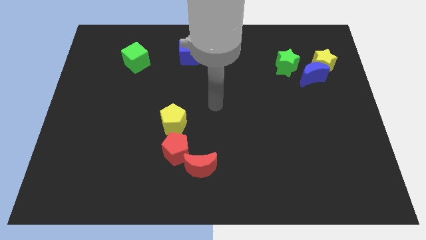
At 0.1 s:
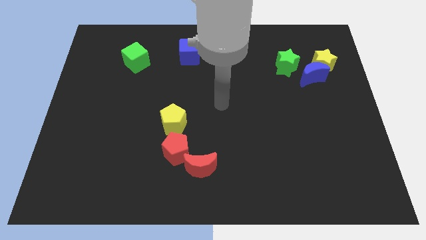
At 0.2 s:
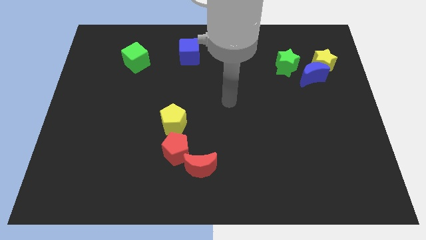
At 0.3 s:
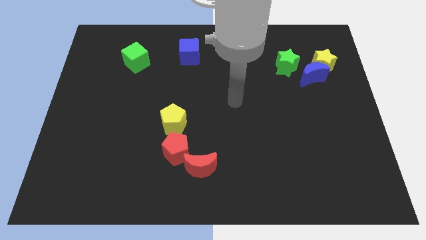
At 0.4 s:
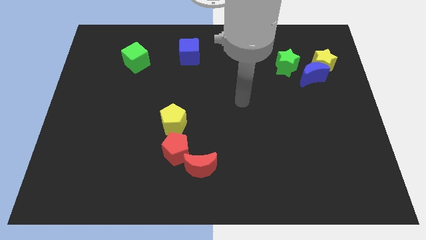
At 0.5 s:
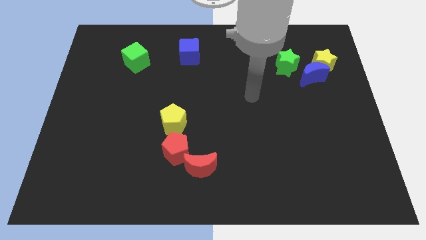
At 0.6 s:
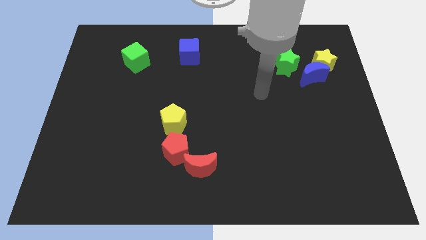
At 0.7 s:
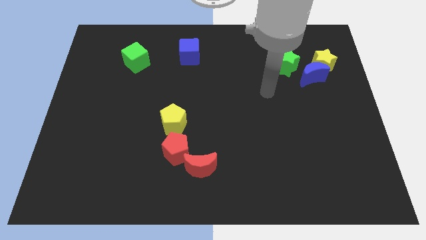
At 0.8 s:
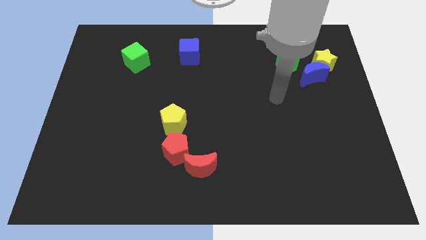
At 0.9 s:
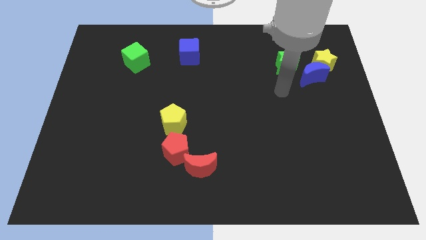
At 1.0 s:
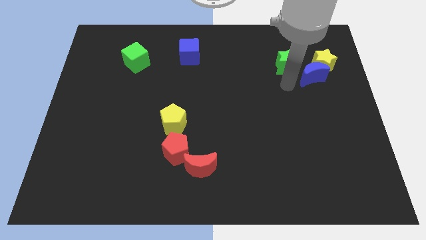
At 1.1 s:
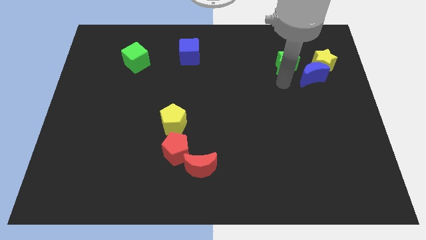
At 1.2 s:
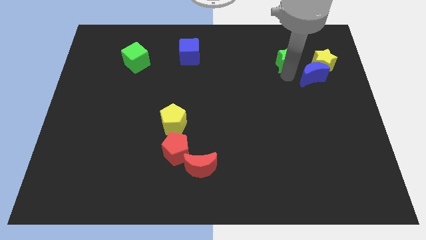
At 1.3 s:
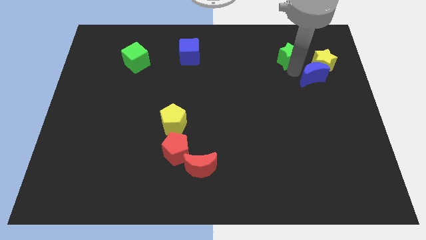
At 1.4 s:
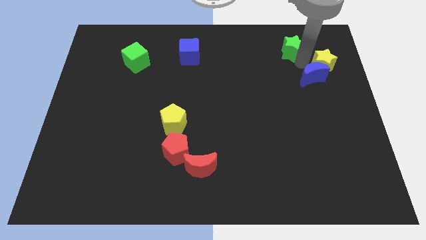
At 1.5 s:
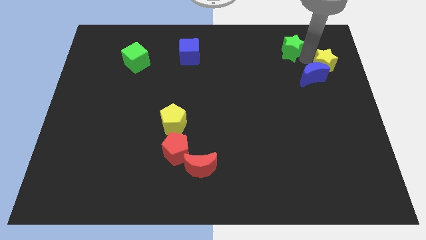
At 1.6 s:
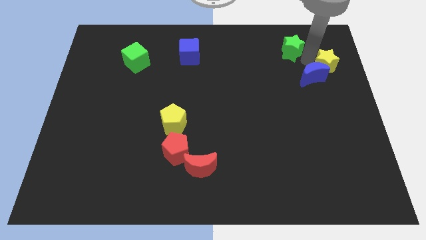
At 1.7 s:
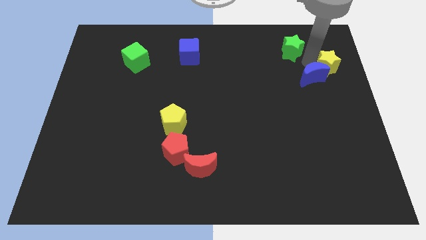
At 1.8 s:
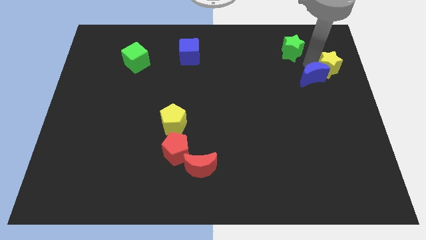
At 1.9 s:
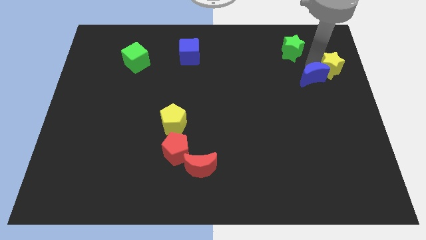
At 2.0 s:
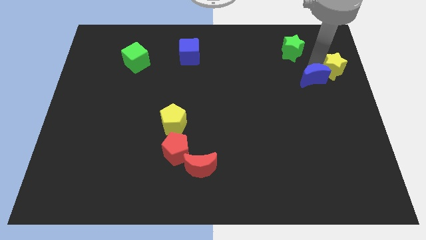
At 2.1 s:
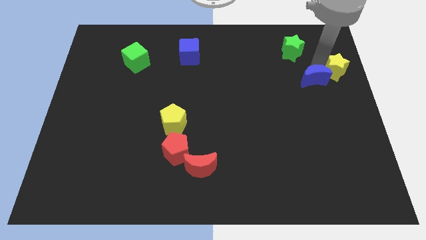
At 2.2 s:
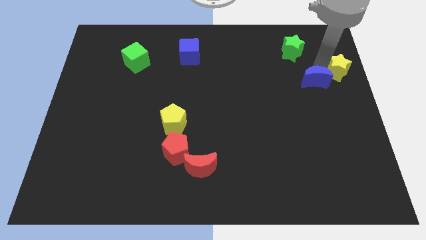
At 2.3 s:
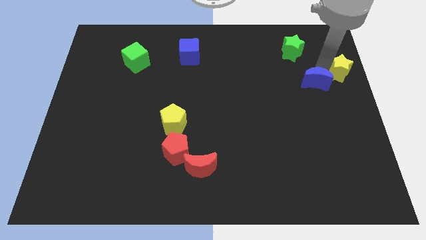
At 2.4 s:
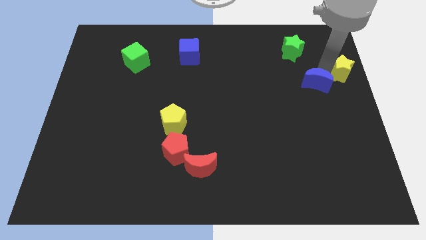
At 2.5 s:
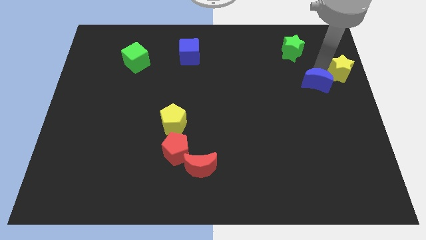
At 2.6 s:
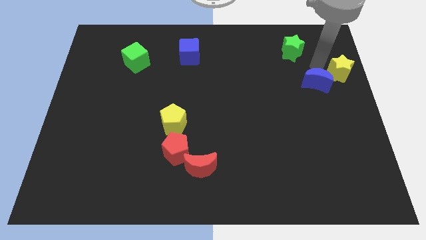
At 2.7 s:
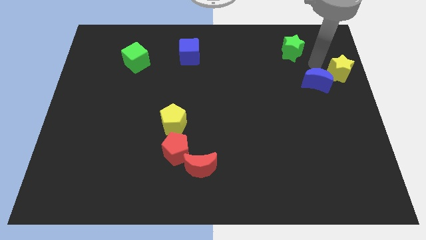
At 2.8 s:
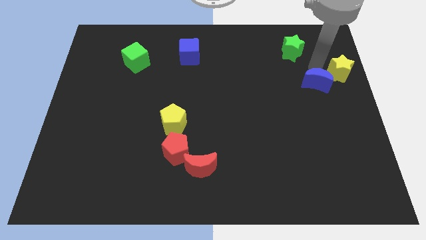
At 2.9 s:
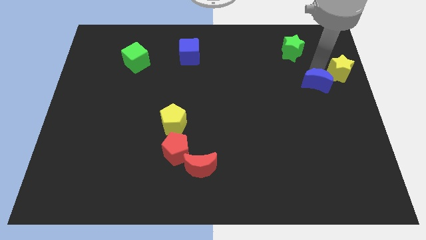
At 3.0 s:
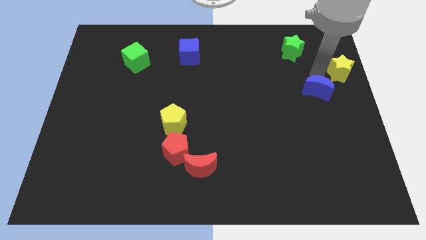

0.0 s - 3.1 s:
separate the blue moon from the yellow star and green star

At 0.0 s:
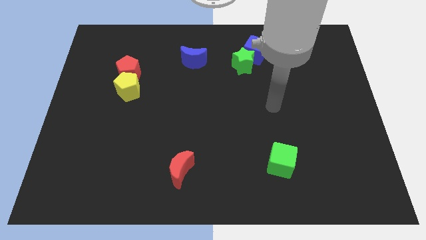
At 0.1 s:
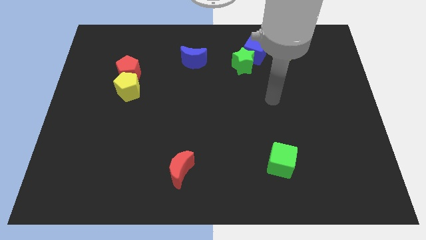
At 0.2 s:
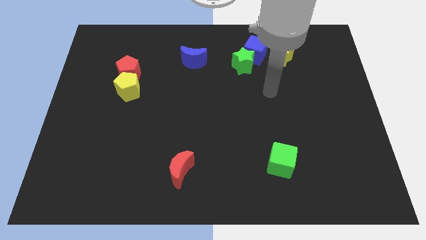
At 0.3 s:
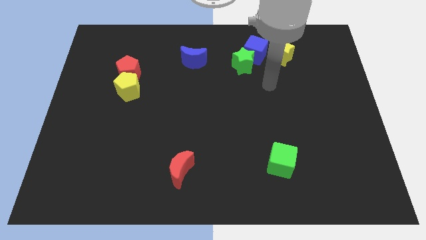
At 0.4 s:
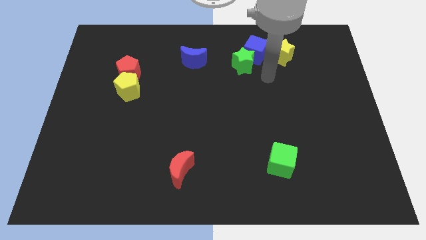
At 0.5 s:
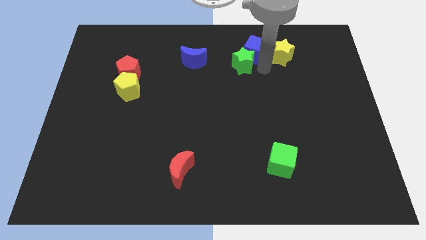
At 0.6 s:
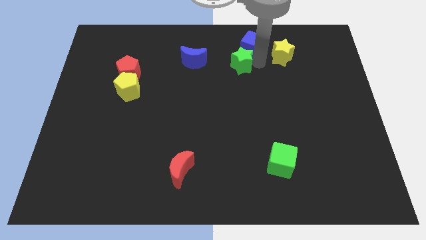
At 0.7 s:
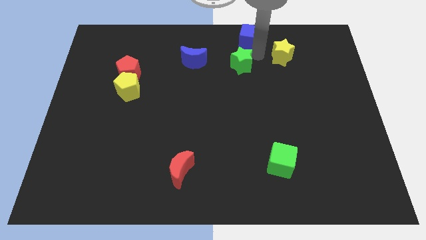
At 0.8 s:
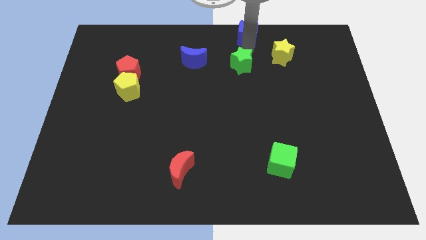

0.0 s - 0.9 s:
pull the green star apart from the blue cube

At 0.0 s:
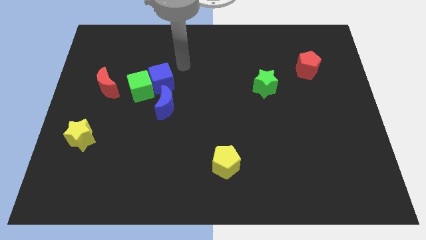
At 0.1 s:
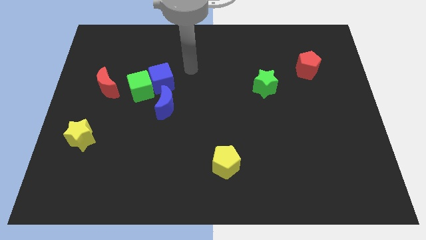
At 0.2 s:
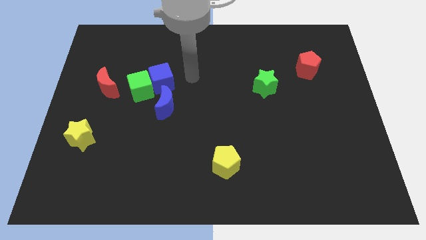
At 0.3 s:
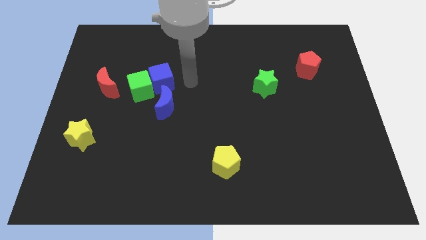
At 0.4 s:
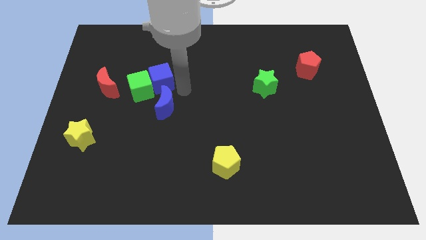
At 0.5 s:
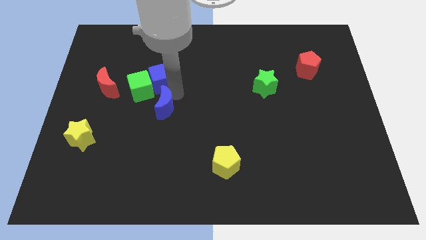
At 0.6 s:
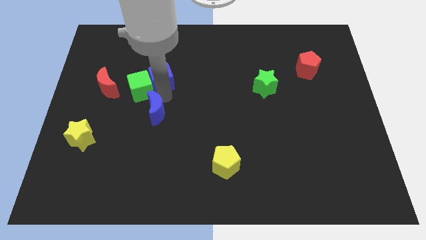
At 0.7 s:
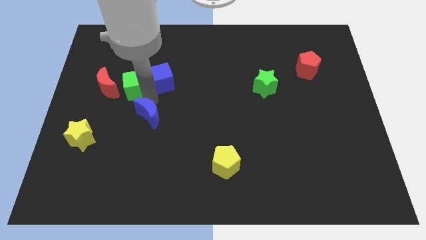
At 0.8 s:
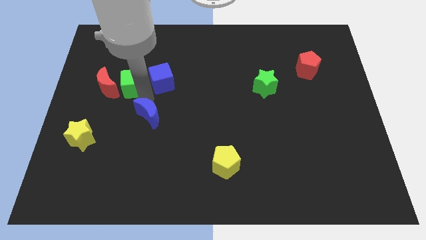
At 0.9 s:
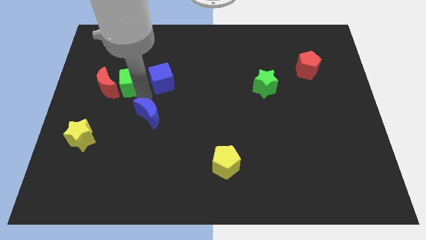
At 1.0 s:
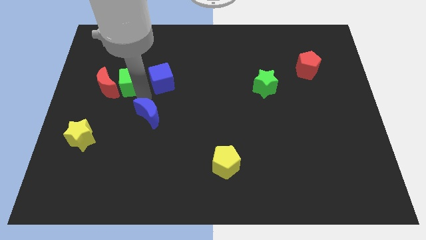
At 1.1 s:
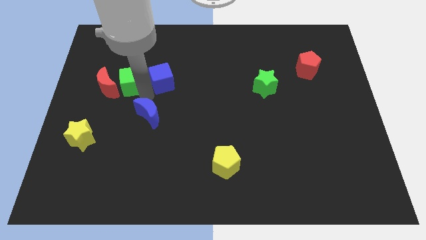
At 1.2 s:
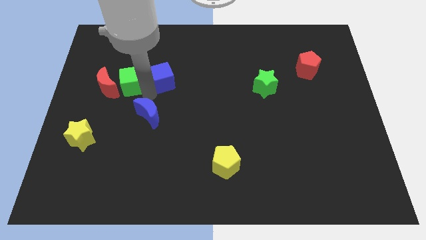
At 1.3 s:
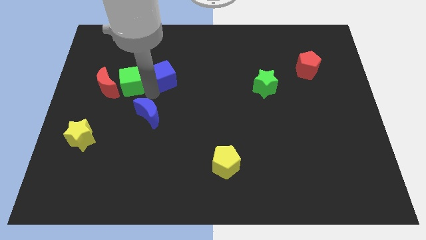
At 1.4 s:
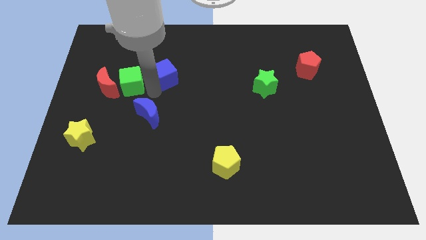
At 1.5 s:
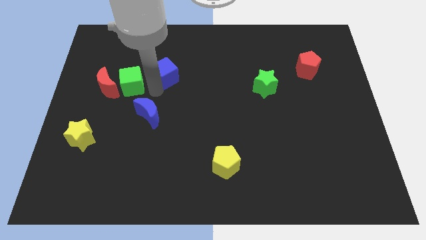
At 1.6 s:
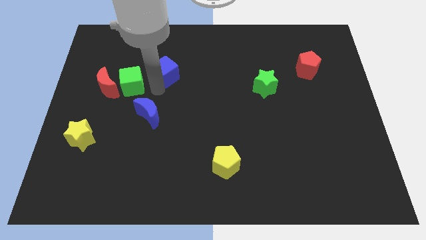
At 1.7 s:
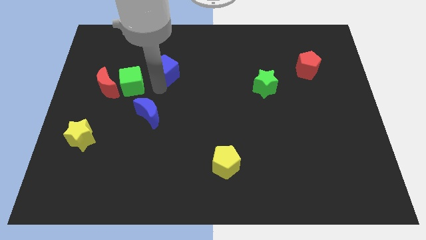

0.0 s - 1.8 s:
move the blue cube away from the green cube and blue moon

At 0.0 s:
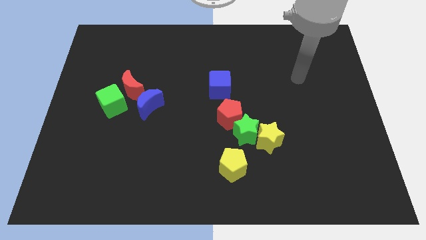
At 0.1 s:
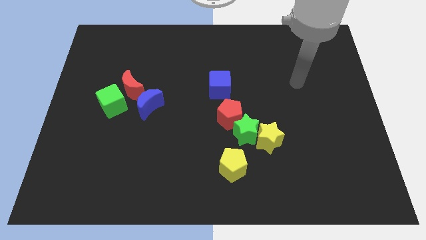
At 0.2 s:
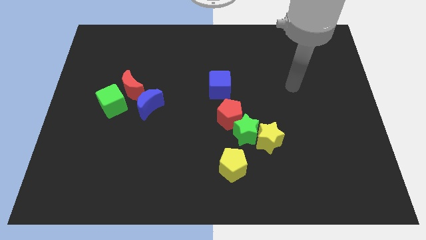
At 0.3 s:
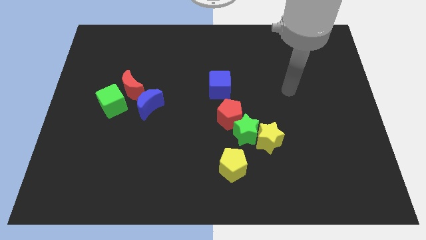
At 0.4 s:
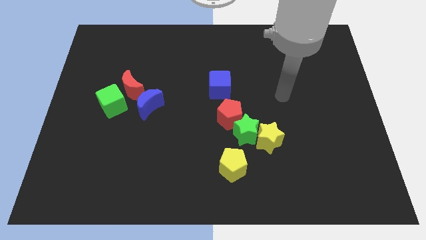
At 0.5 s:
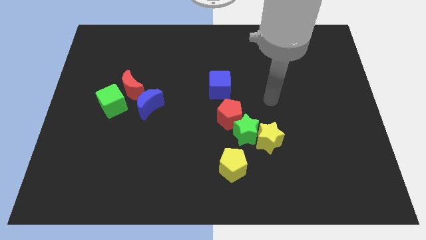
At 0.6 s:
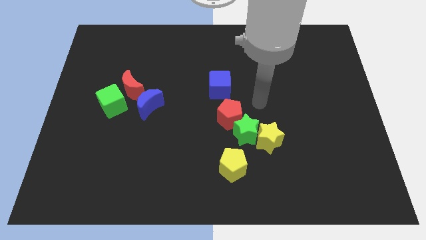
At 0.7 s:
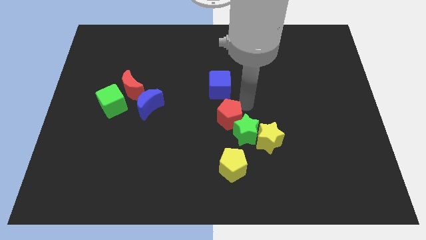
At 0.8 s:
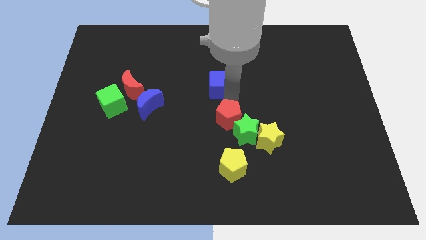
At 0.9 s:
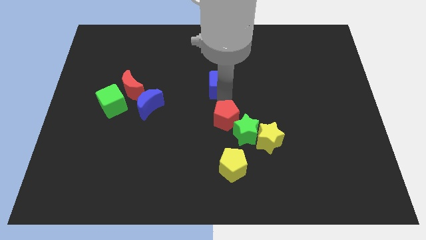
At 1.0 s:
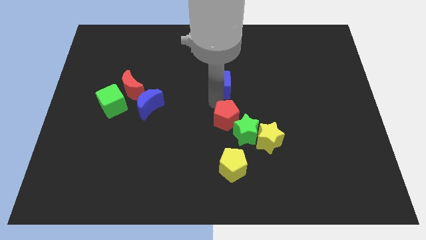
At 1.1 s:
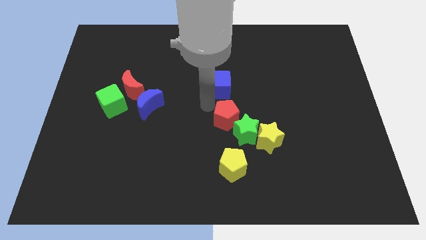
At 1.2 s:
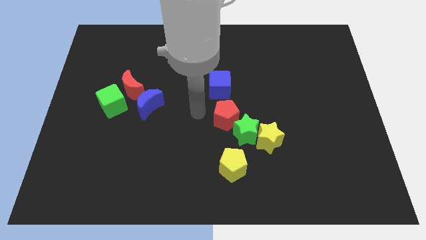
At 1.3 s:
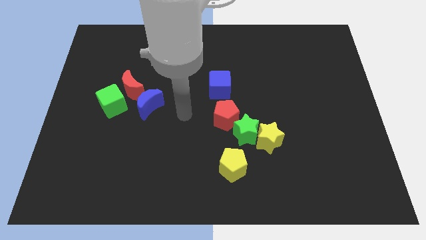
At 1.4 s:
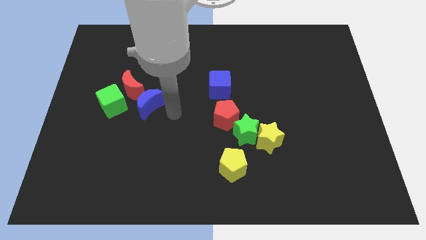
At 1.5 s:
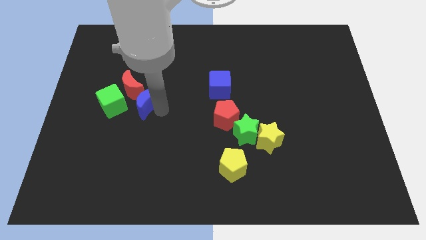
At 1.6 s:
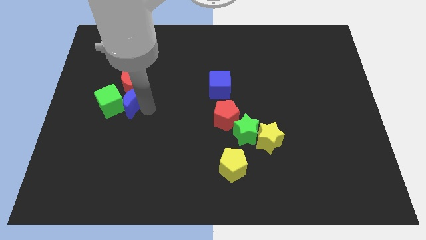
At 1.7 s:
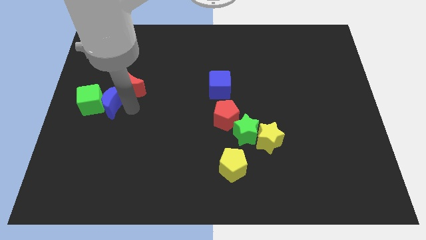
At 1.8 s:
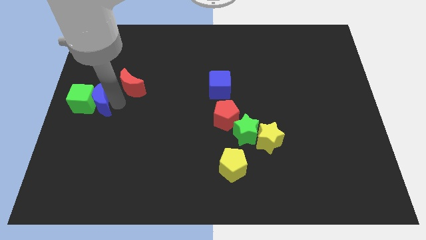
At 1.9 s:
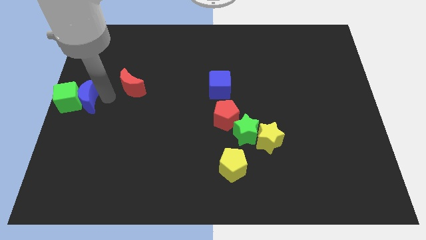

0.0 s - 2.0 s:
move the red moon away from the green cube and blue moon

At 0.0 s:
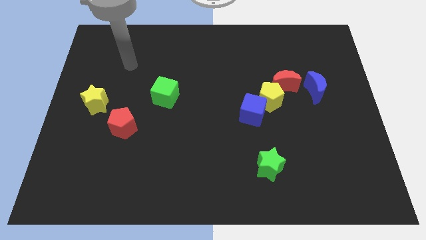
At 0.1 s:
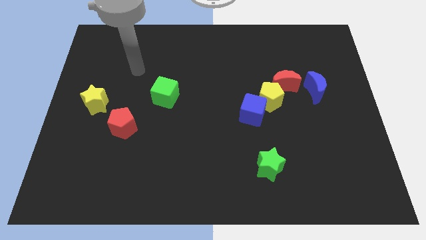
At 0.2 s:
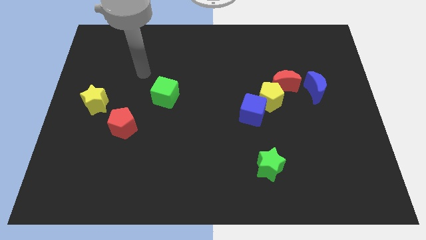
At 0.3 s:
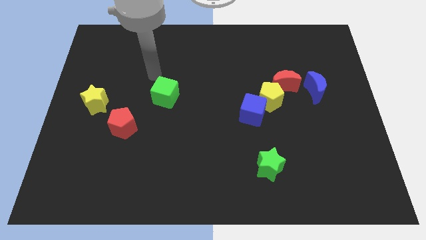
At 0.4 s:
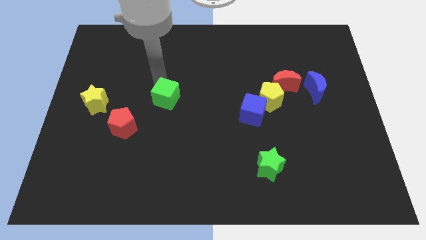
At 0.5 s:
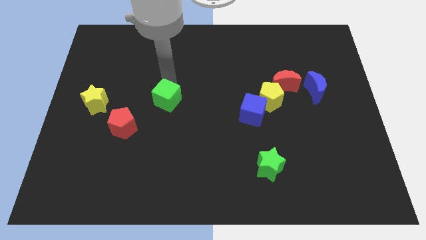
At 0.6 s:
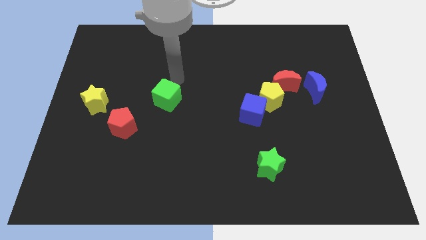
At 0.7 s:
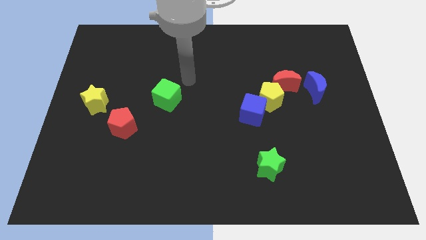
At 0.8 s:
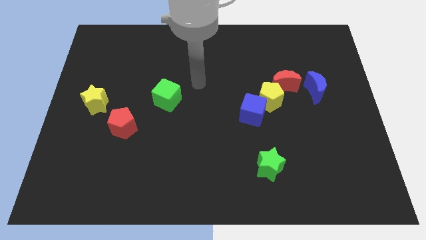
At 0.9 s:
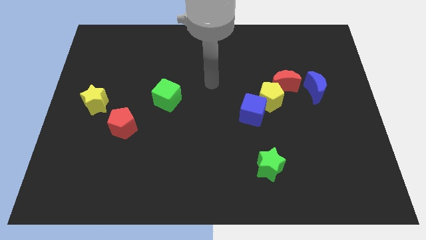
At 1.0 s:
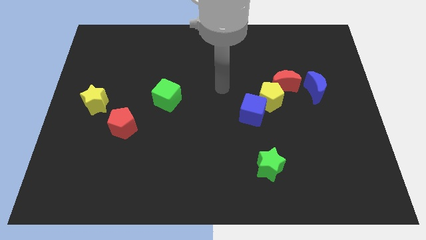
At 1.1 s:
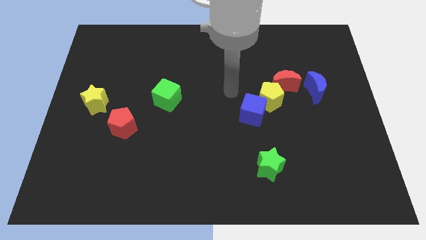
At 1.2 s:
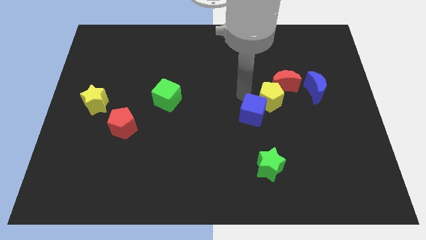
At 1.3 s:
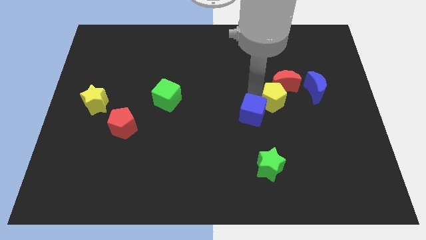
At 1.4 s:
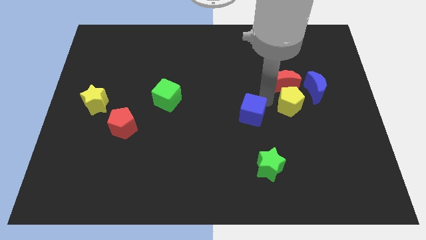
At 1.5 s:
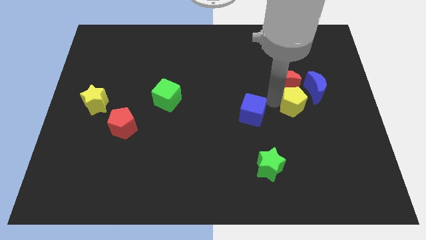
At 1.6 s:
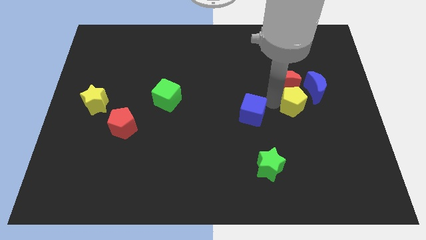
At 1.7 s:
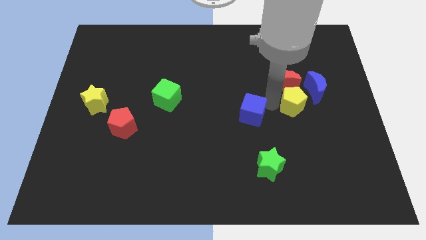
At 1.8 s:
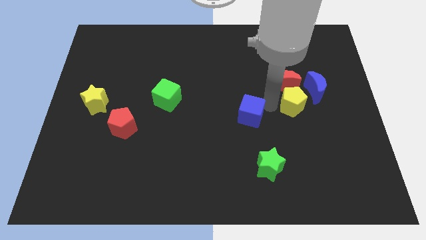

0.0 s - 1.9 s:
separate the blue cube from the yellow pentagon
